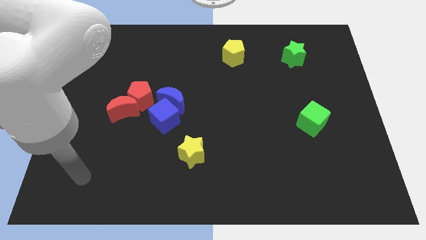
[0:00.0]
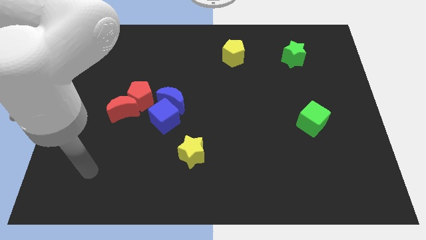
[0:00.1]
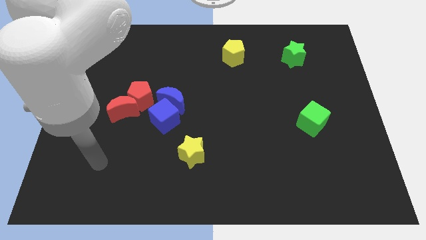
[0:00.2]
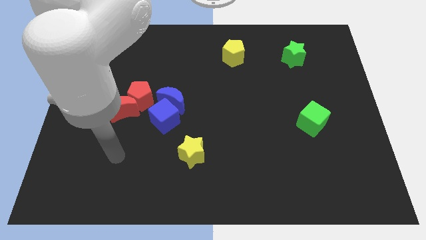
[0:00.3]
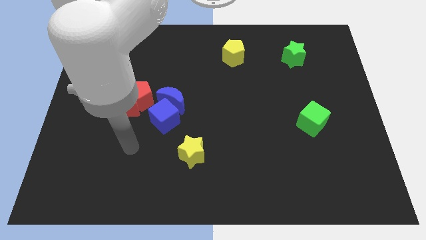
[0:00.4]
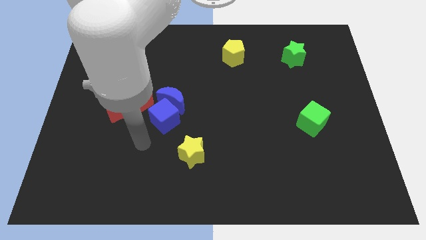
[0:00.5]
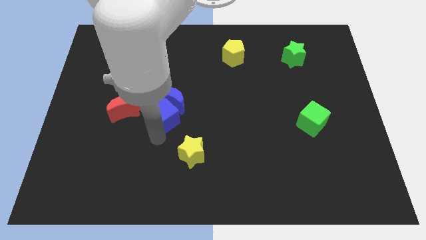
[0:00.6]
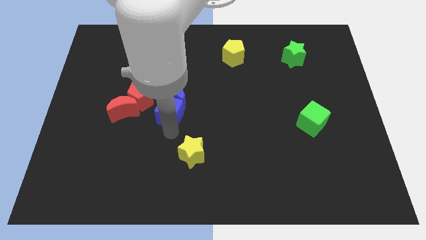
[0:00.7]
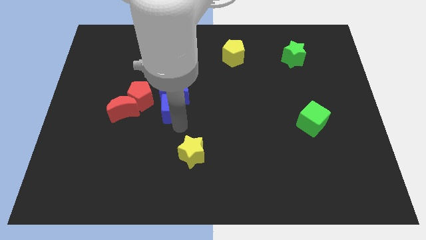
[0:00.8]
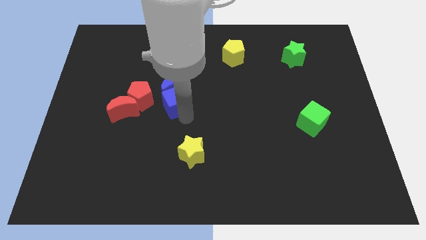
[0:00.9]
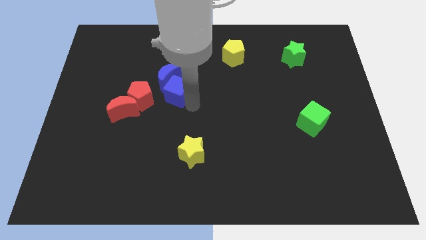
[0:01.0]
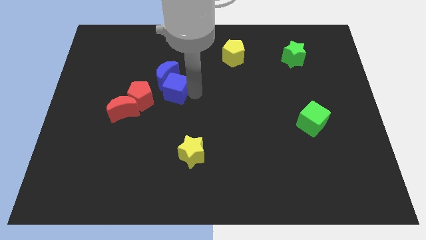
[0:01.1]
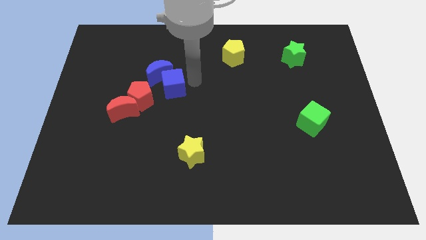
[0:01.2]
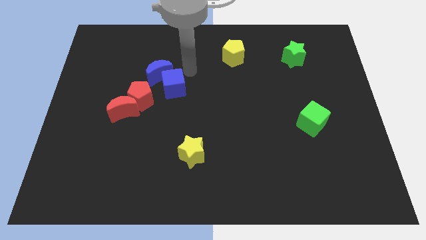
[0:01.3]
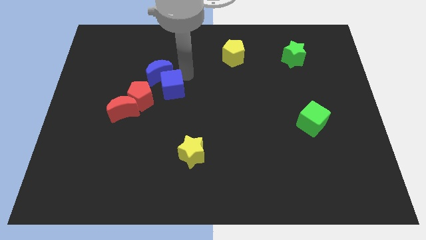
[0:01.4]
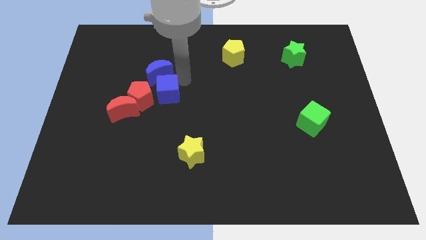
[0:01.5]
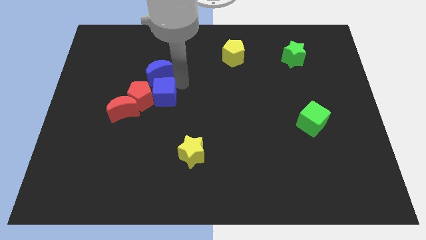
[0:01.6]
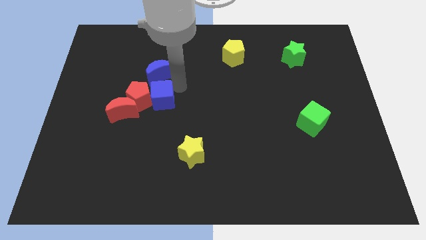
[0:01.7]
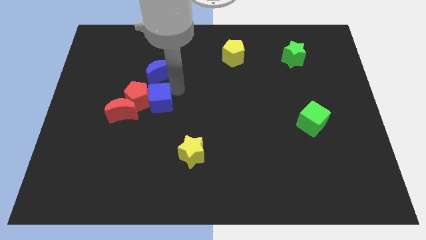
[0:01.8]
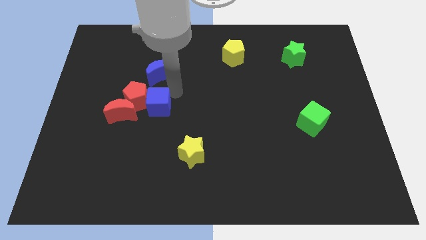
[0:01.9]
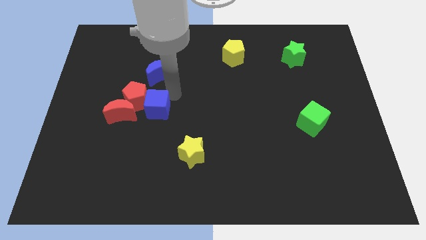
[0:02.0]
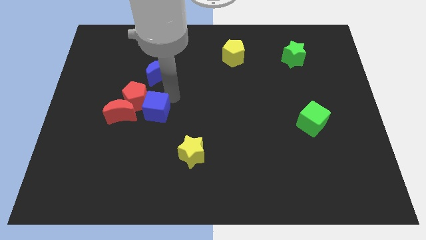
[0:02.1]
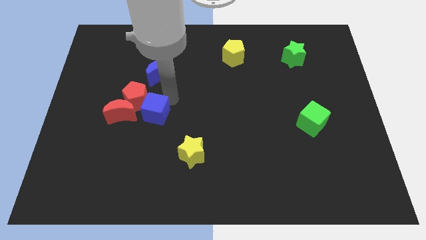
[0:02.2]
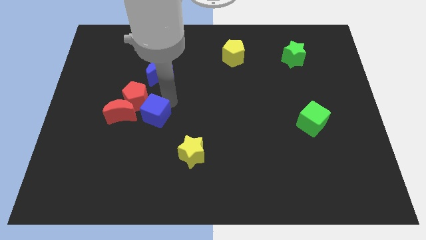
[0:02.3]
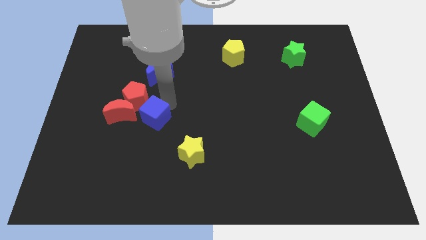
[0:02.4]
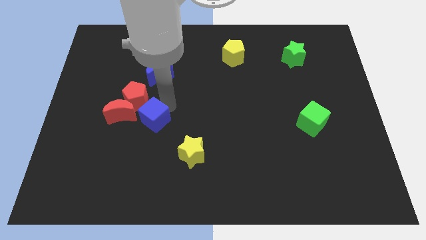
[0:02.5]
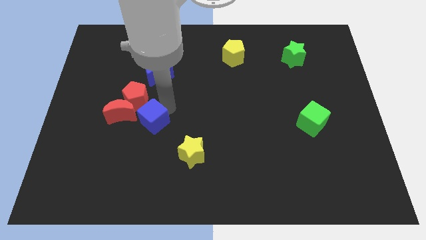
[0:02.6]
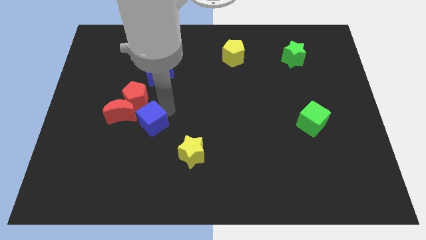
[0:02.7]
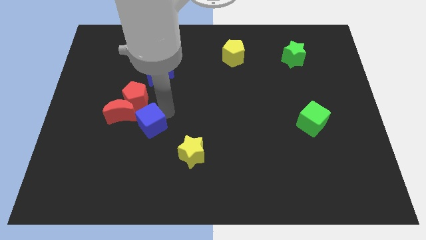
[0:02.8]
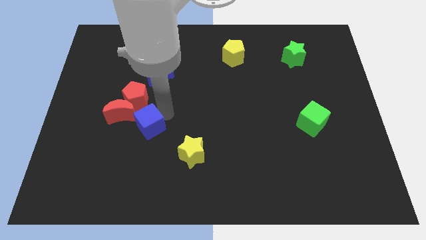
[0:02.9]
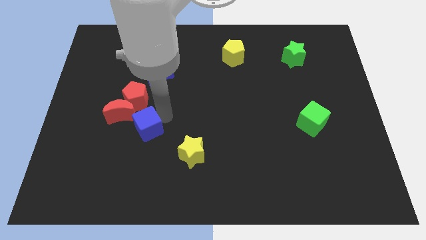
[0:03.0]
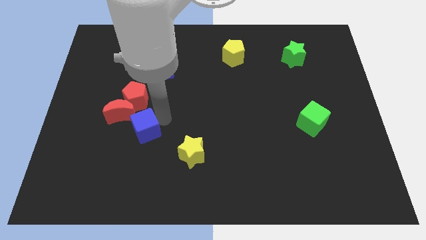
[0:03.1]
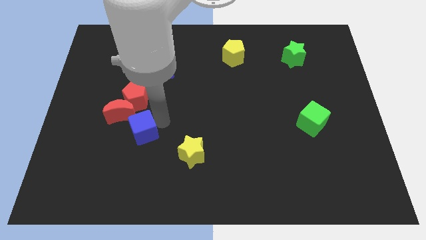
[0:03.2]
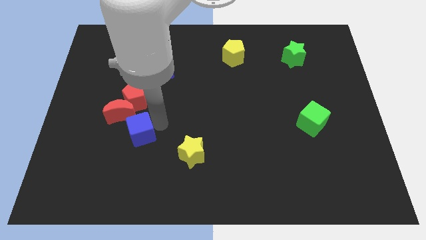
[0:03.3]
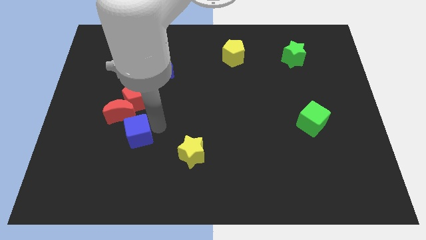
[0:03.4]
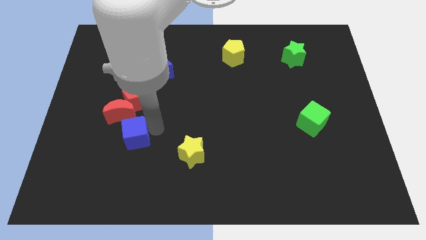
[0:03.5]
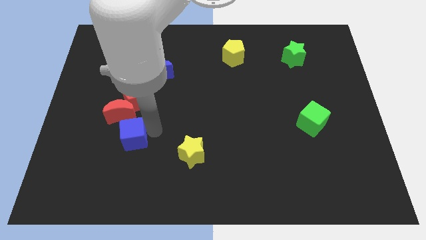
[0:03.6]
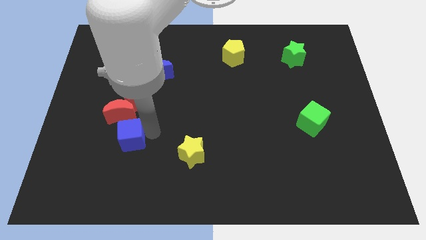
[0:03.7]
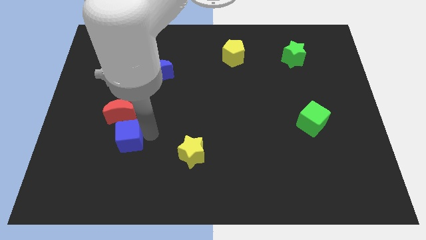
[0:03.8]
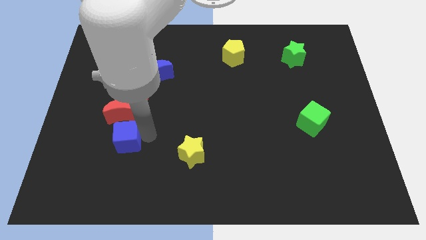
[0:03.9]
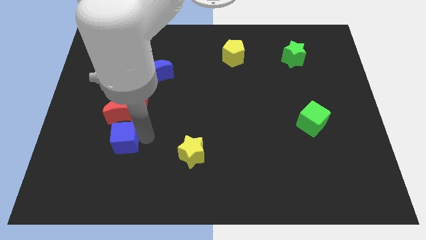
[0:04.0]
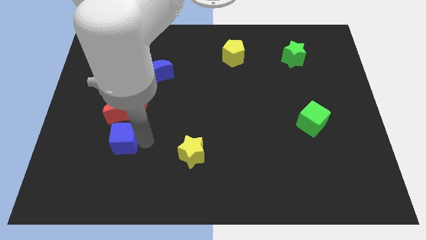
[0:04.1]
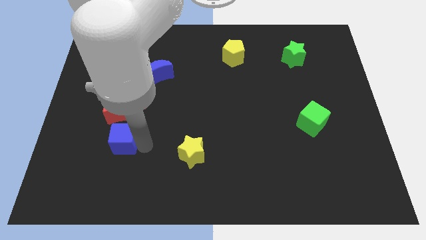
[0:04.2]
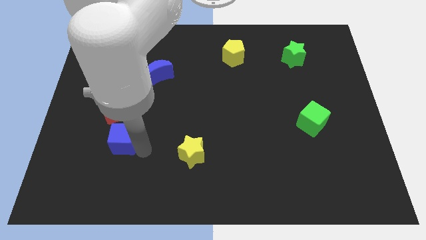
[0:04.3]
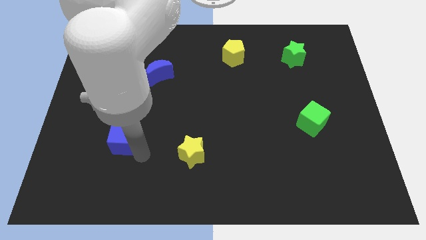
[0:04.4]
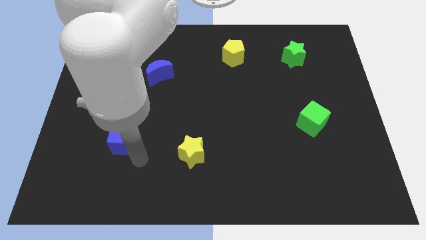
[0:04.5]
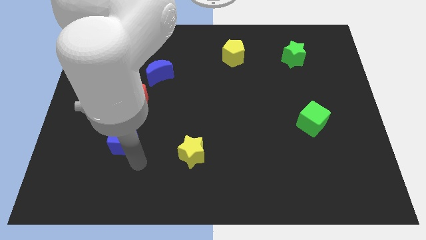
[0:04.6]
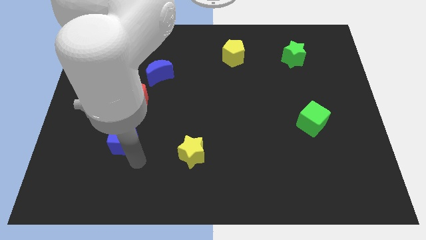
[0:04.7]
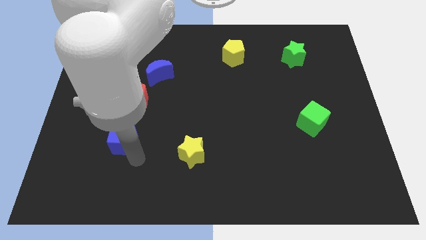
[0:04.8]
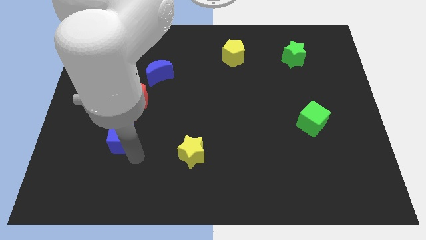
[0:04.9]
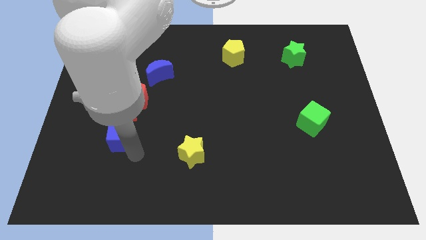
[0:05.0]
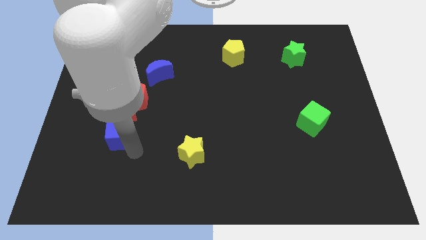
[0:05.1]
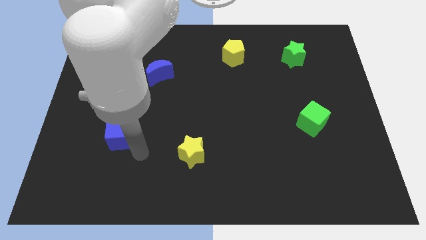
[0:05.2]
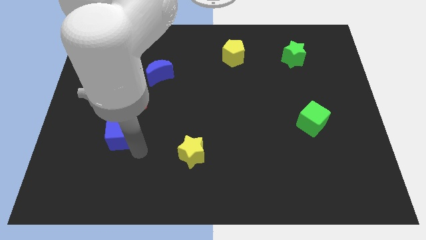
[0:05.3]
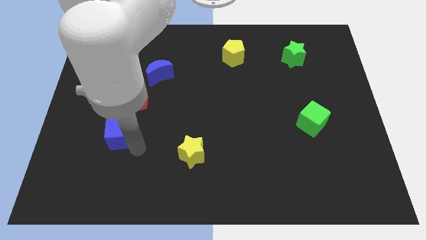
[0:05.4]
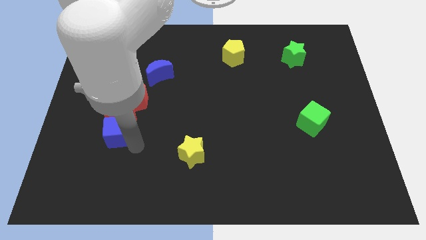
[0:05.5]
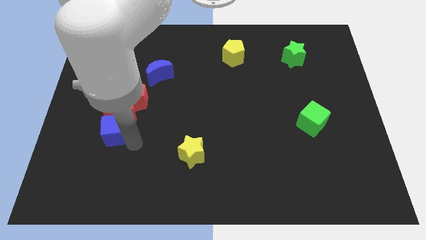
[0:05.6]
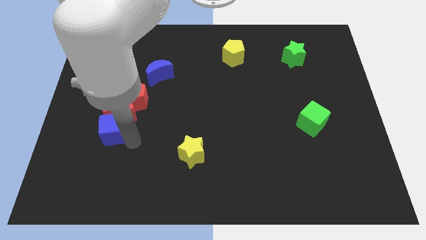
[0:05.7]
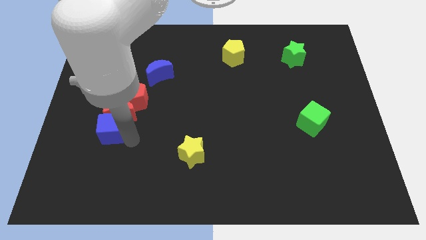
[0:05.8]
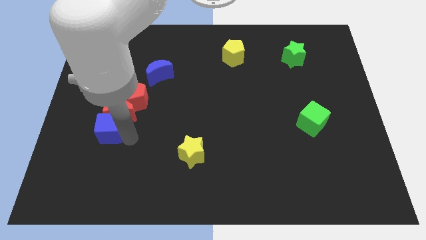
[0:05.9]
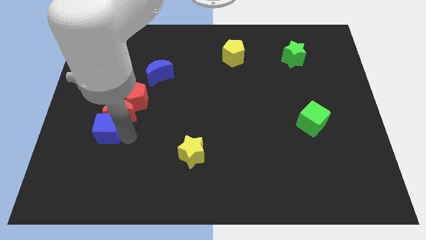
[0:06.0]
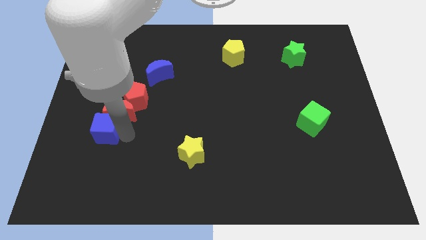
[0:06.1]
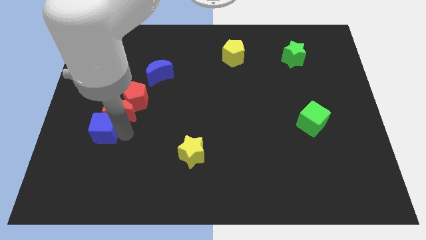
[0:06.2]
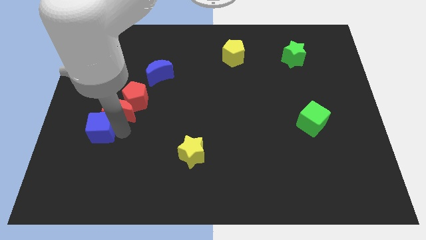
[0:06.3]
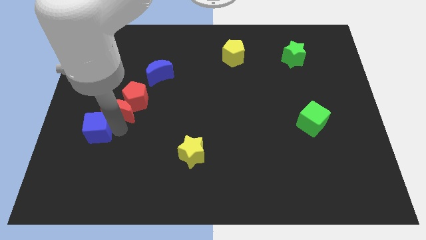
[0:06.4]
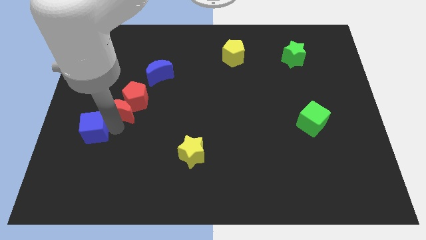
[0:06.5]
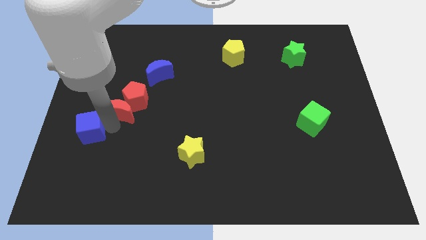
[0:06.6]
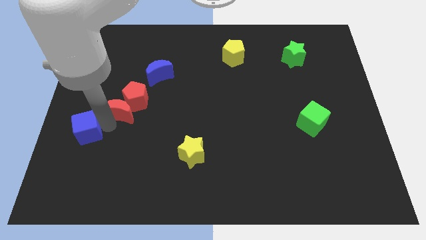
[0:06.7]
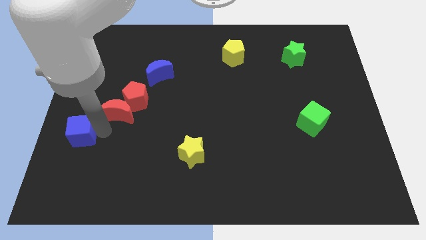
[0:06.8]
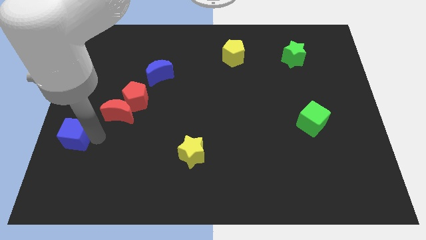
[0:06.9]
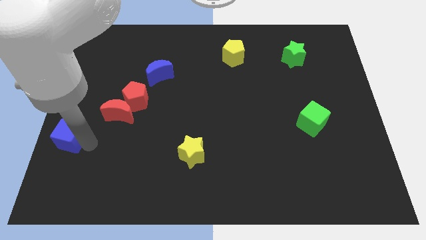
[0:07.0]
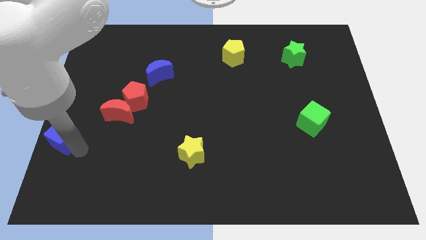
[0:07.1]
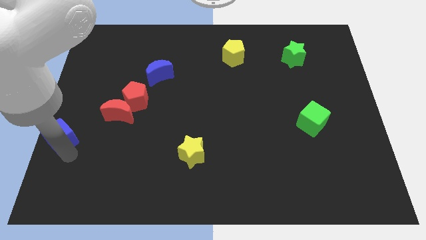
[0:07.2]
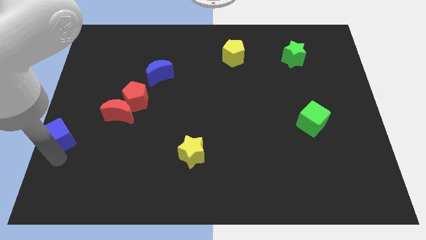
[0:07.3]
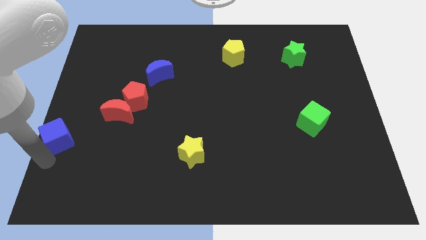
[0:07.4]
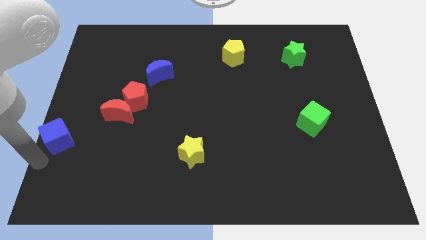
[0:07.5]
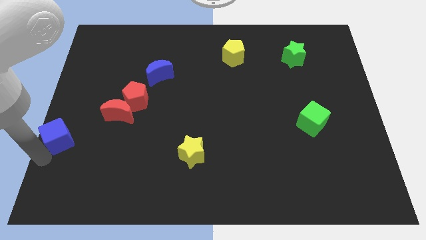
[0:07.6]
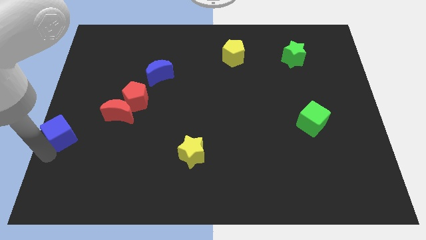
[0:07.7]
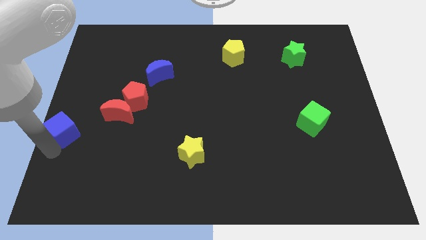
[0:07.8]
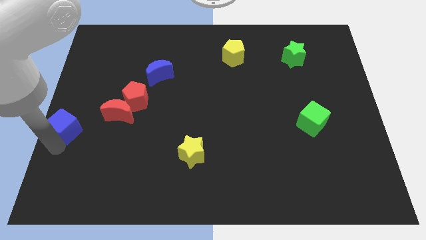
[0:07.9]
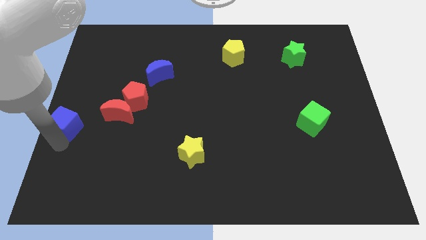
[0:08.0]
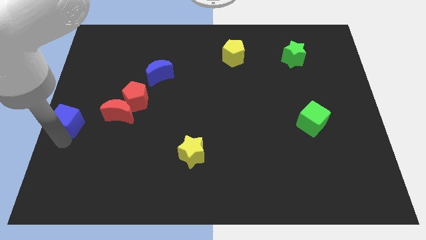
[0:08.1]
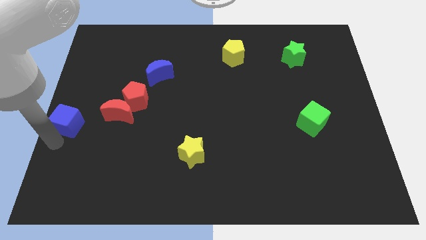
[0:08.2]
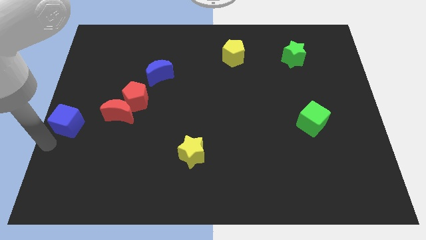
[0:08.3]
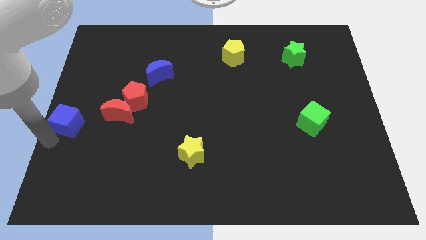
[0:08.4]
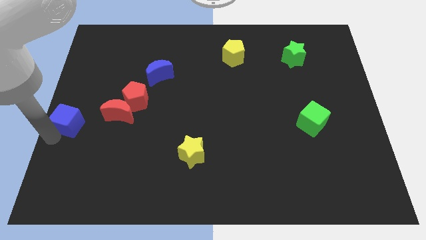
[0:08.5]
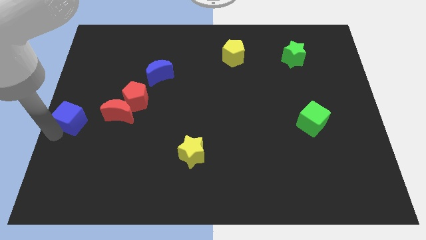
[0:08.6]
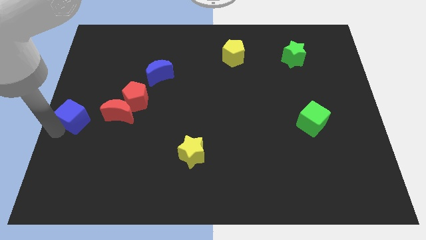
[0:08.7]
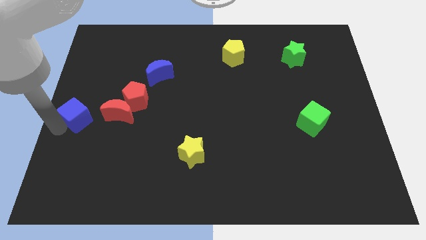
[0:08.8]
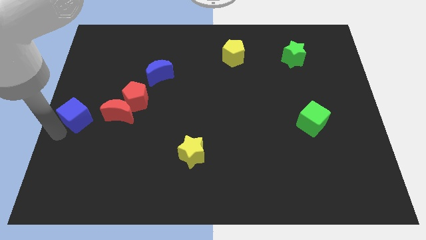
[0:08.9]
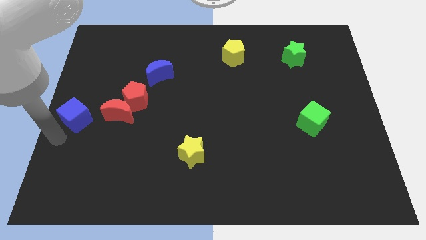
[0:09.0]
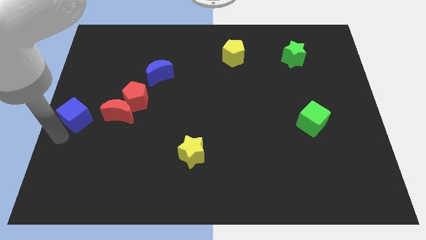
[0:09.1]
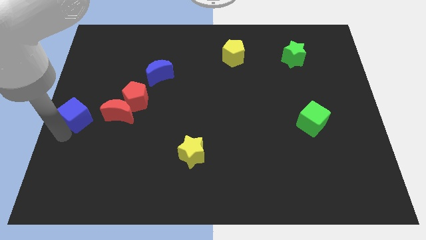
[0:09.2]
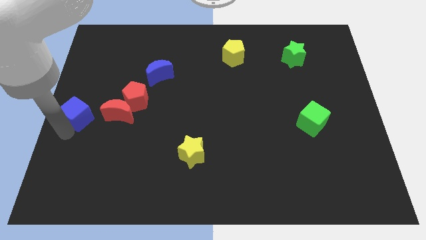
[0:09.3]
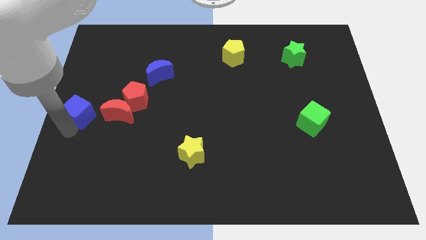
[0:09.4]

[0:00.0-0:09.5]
push the blue cube just left of the red pentagon
